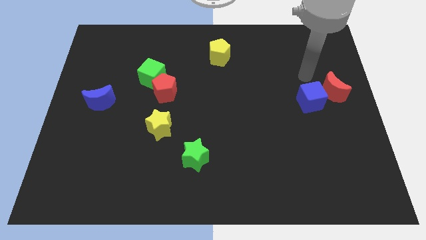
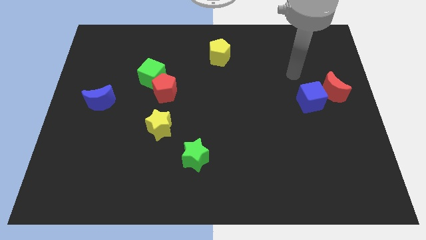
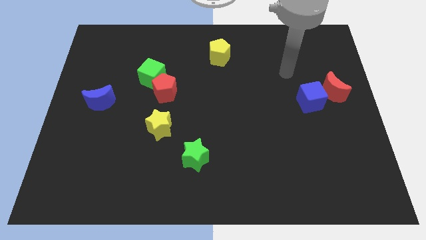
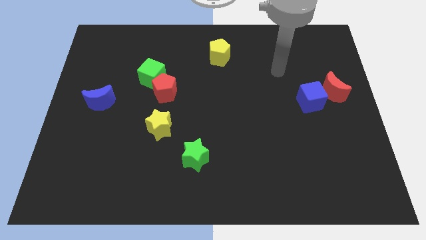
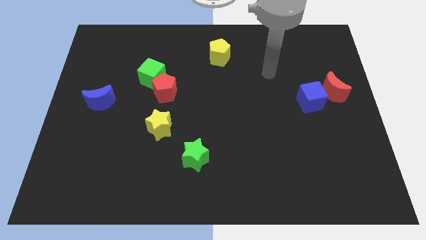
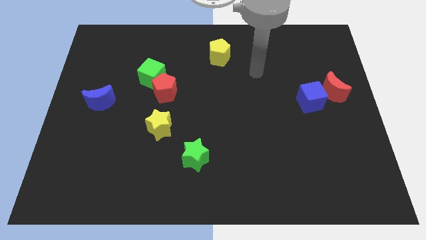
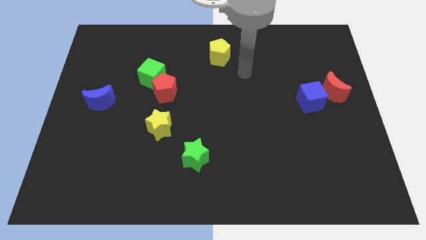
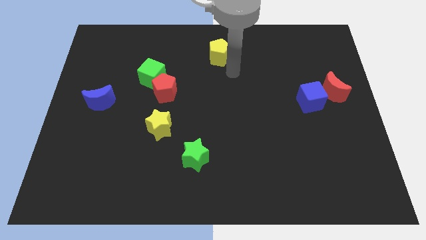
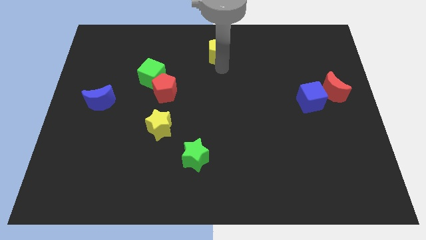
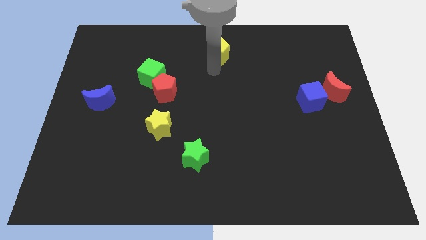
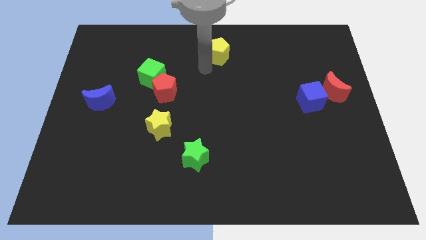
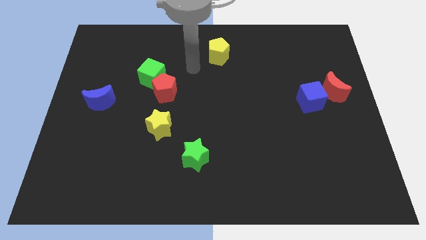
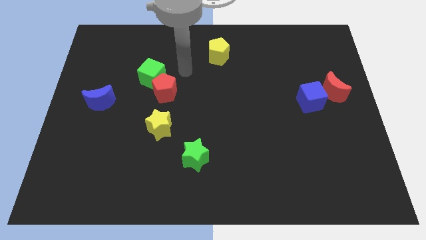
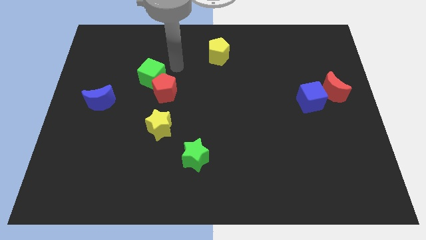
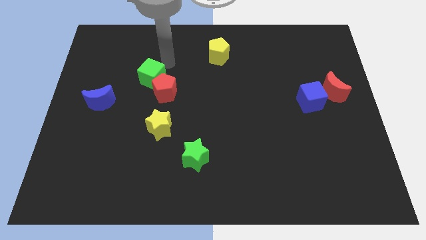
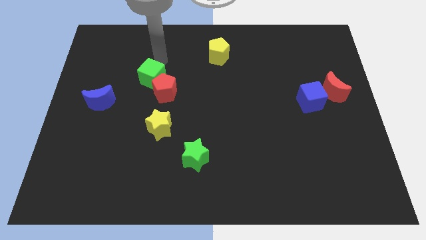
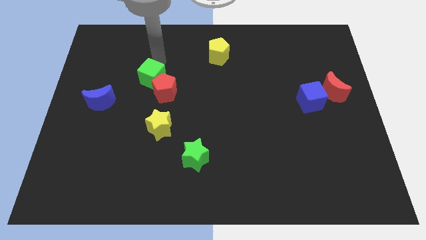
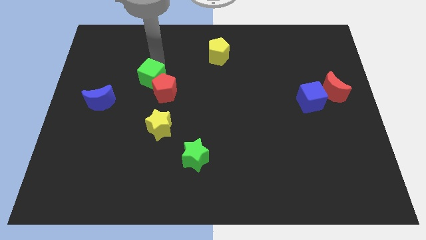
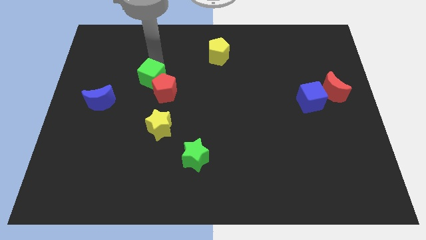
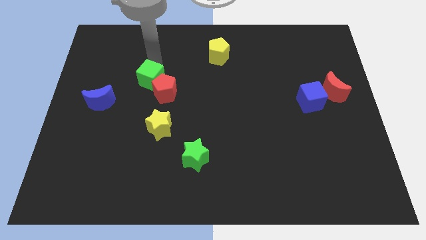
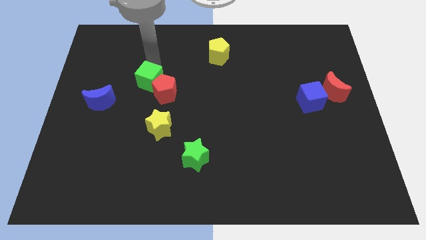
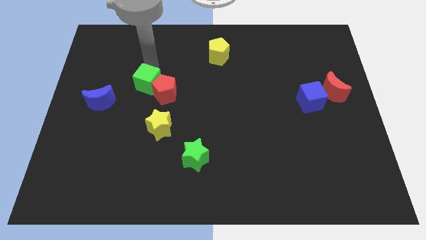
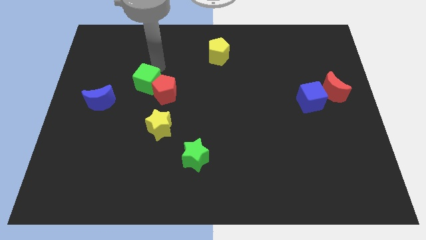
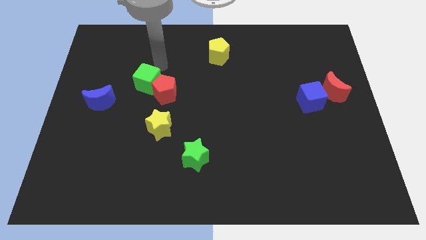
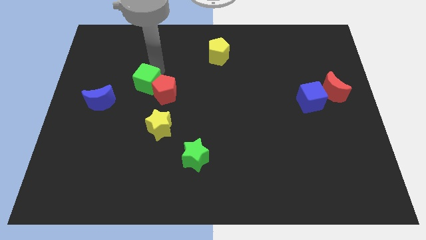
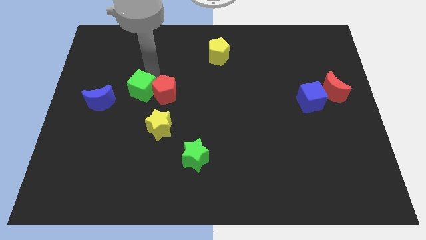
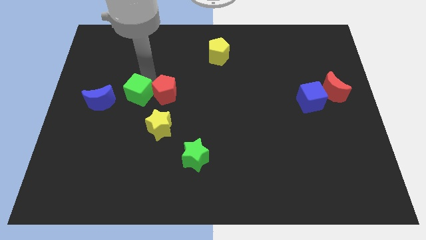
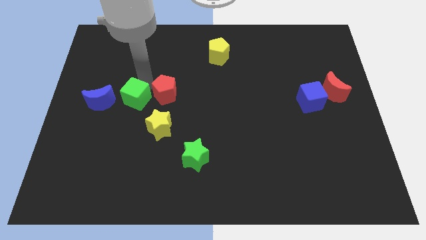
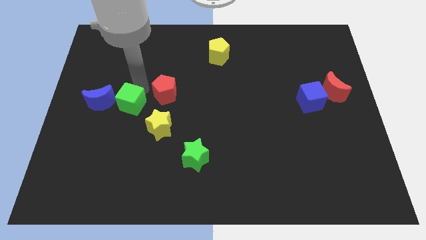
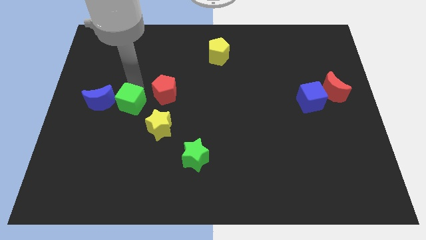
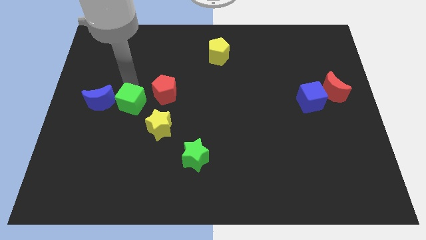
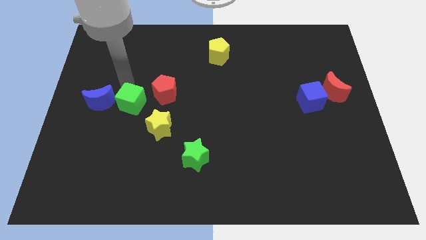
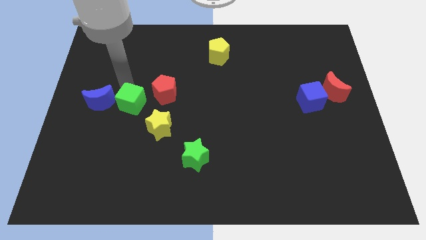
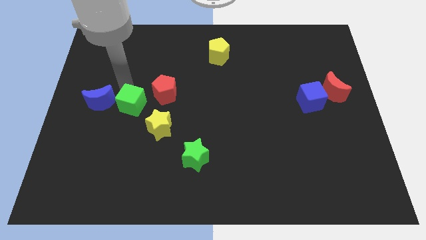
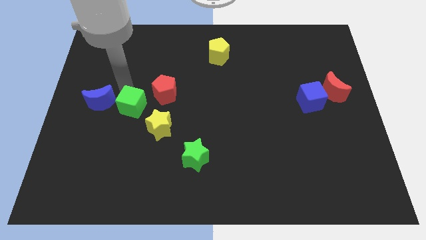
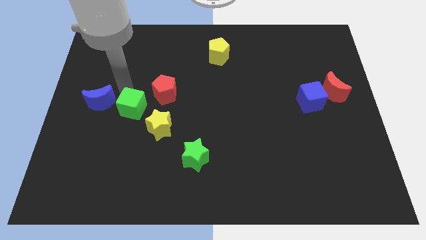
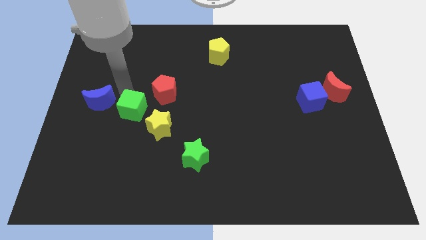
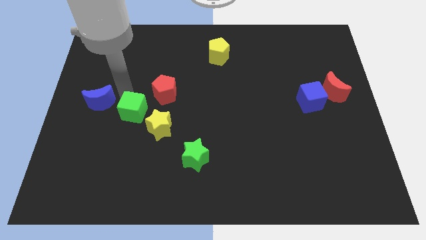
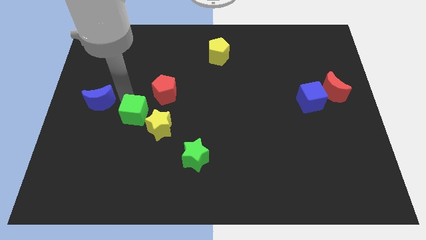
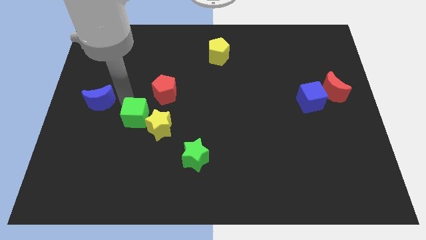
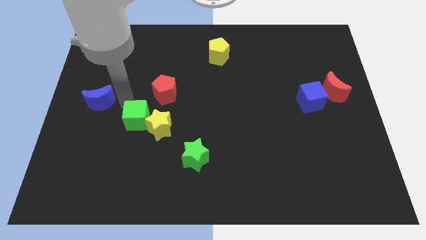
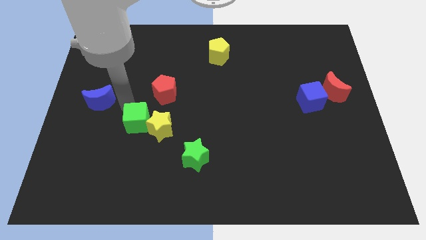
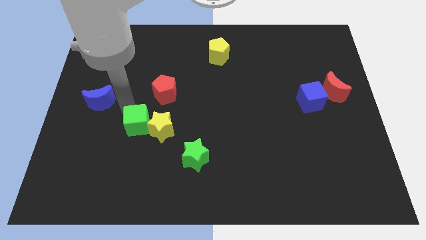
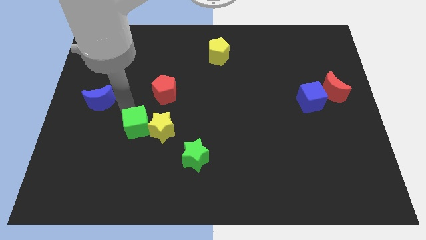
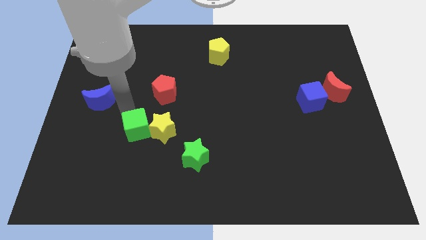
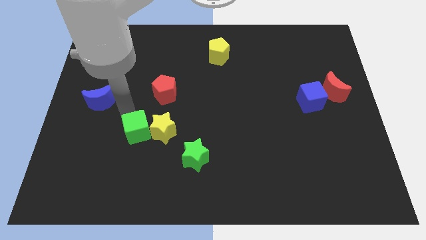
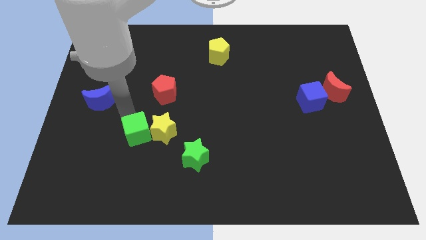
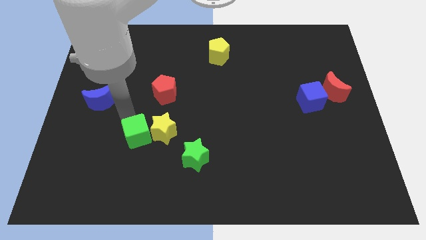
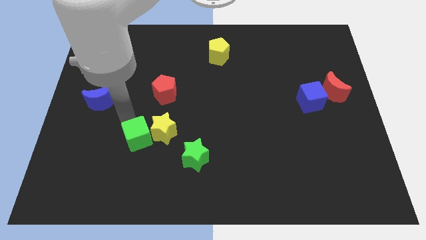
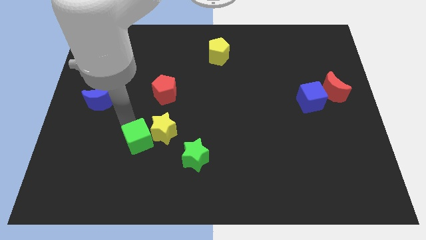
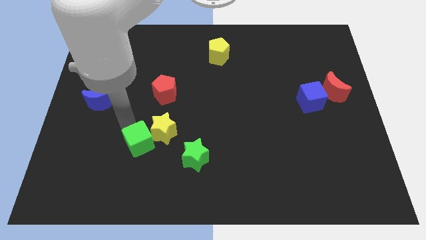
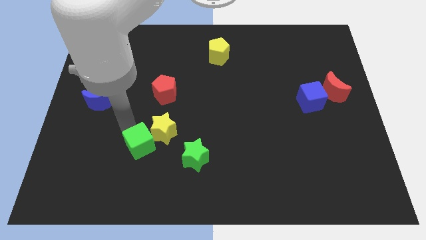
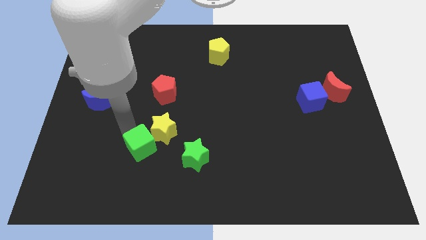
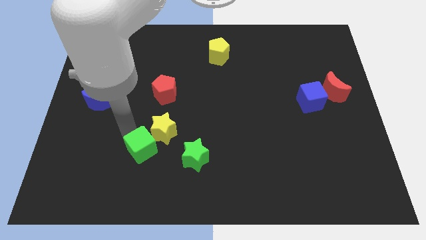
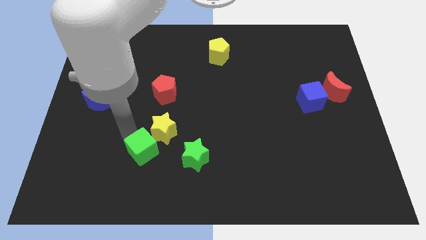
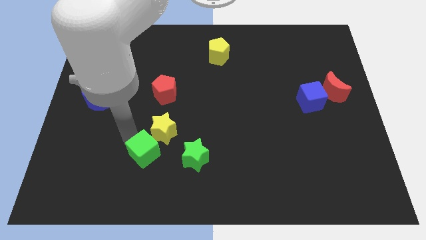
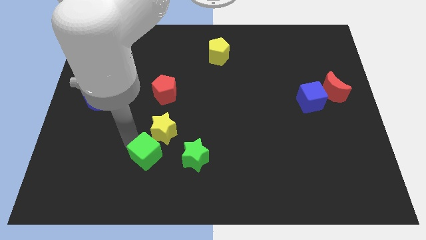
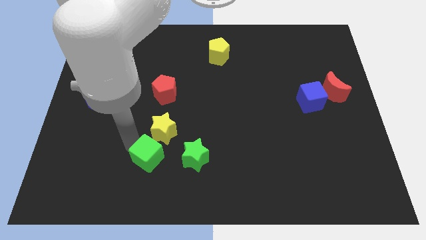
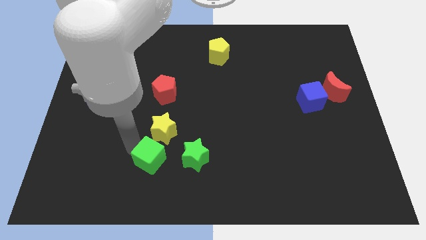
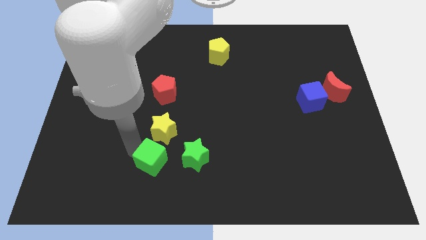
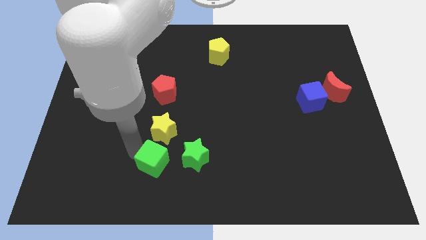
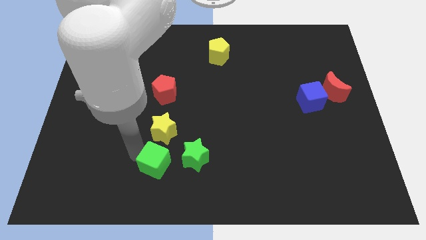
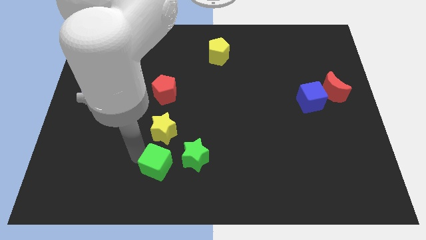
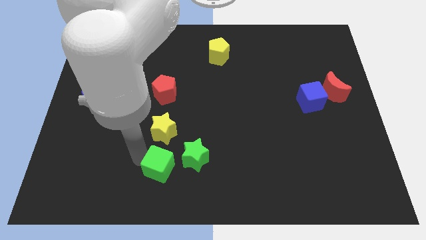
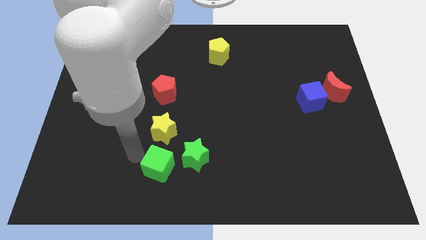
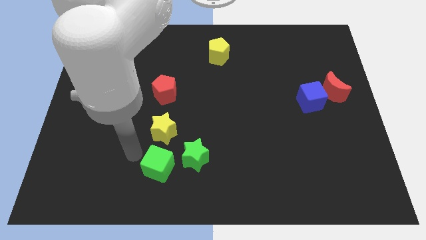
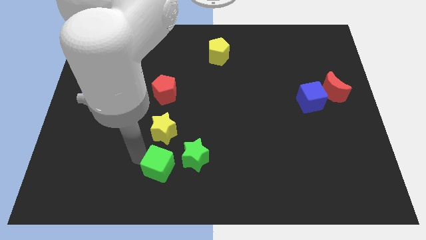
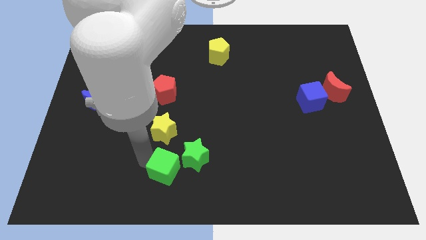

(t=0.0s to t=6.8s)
push the green cube to the bottom
